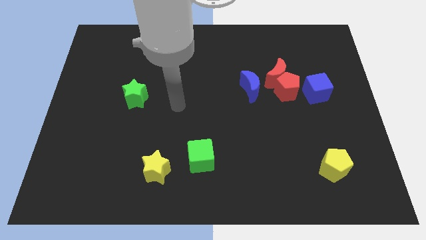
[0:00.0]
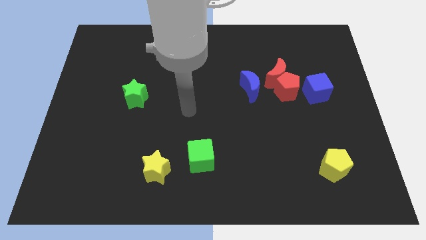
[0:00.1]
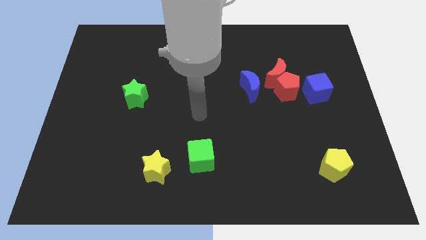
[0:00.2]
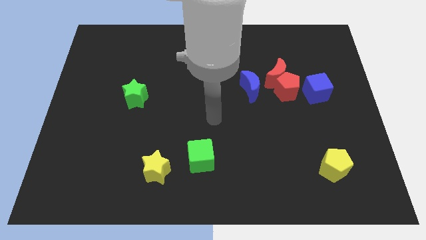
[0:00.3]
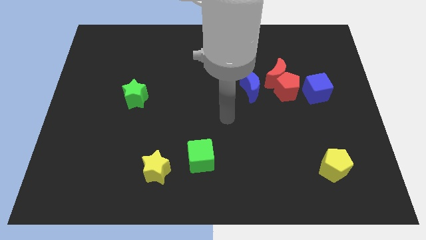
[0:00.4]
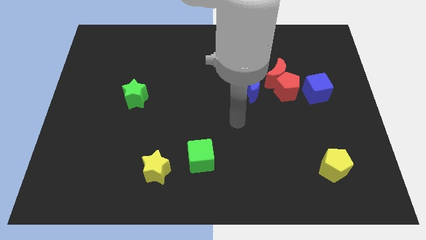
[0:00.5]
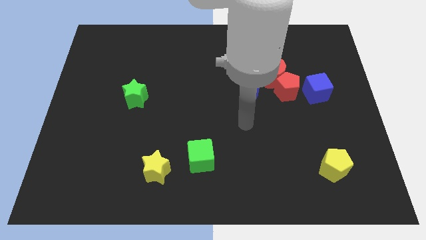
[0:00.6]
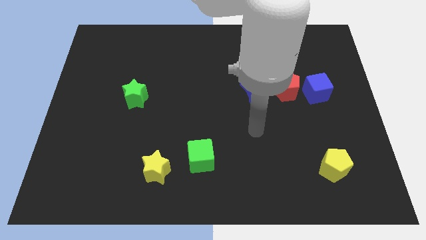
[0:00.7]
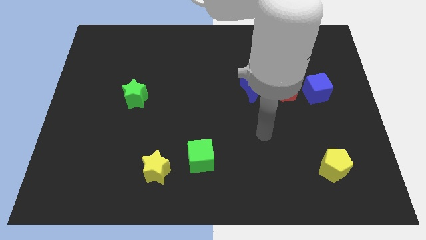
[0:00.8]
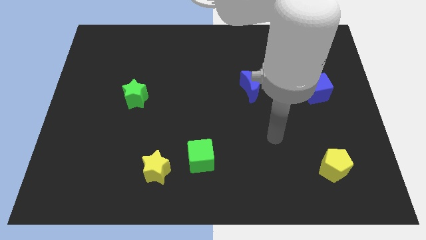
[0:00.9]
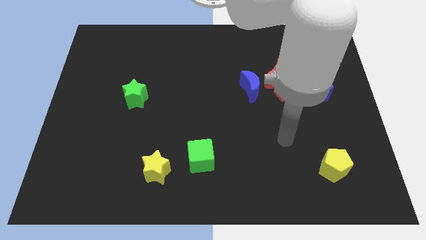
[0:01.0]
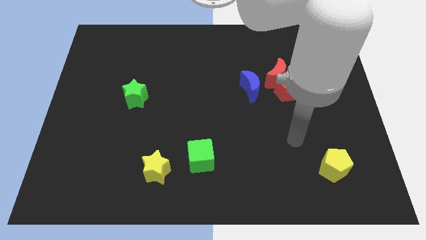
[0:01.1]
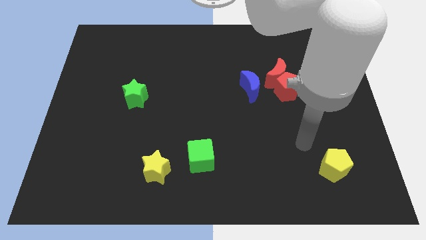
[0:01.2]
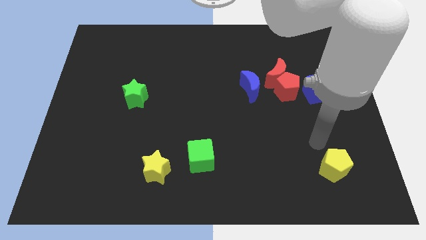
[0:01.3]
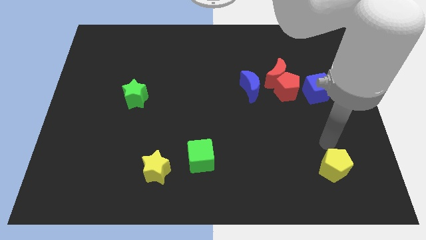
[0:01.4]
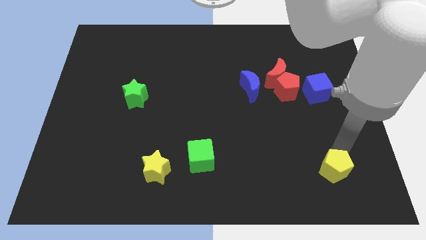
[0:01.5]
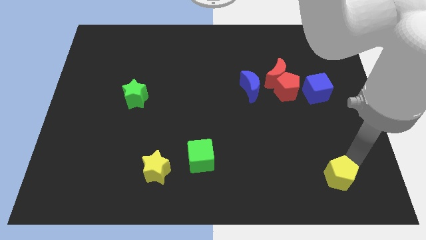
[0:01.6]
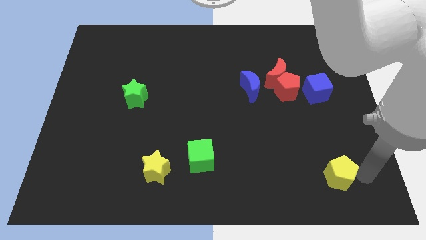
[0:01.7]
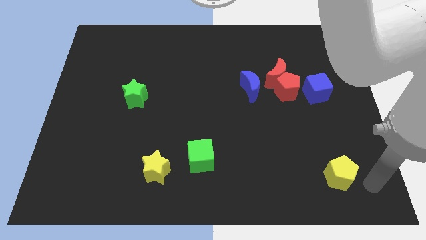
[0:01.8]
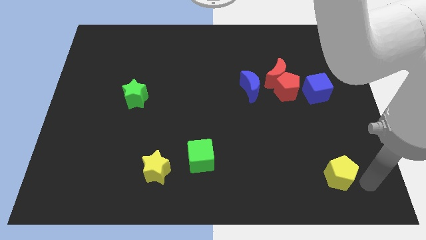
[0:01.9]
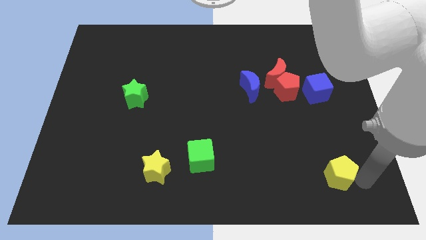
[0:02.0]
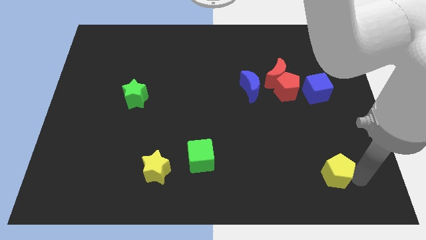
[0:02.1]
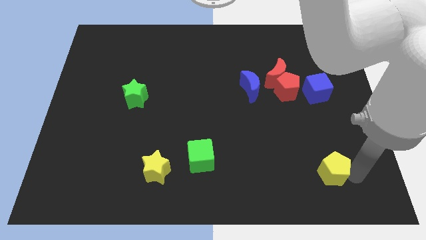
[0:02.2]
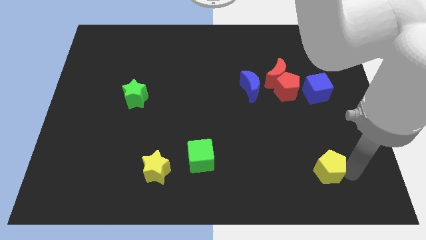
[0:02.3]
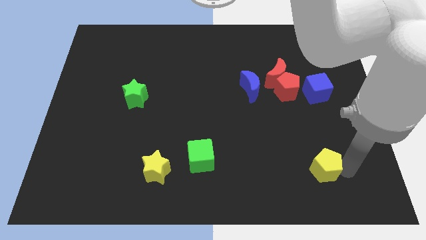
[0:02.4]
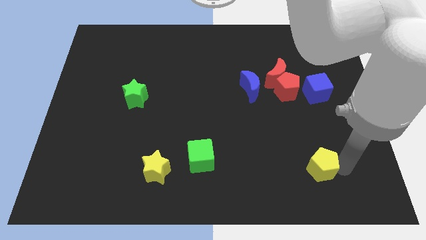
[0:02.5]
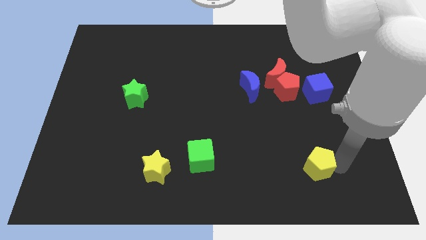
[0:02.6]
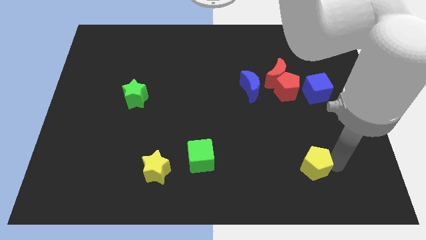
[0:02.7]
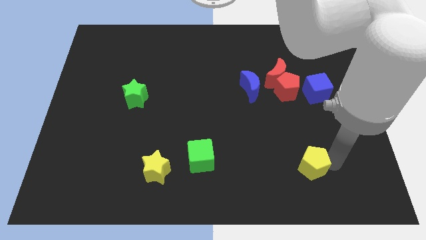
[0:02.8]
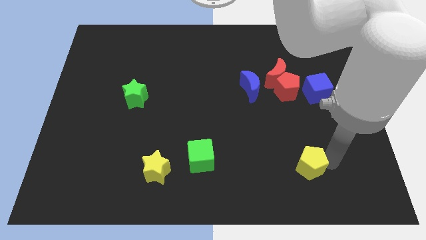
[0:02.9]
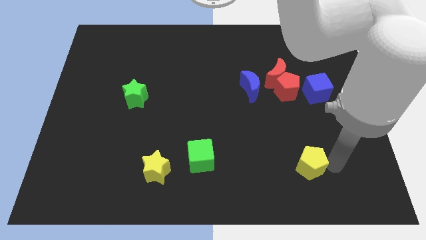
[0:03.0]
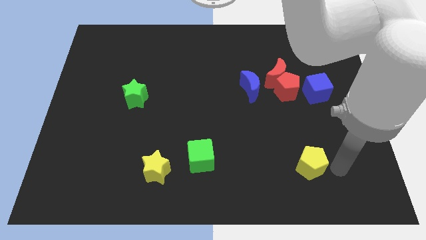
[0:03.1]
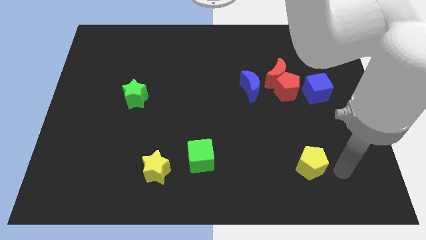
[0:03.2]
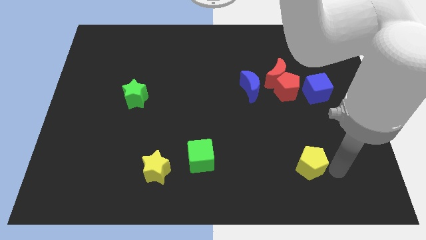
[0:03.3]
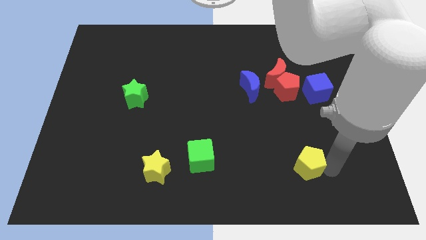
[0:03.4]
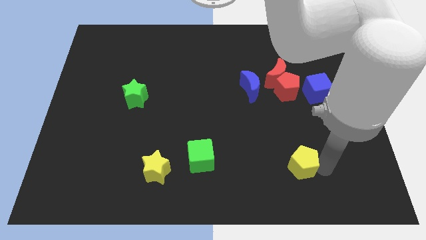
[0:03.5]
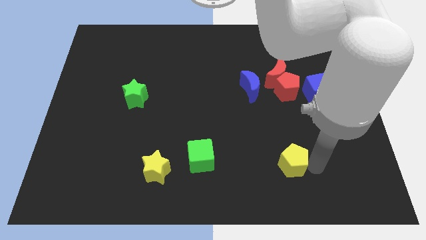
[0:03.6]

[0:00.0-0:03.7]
push the yellow pentagon a bit to the left

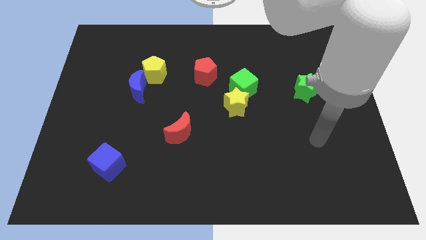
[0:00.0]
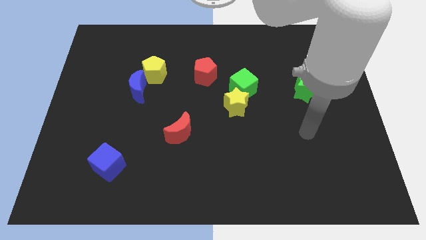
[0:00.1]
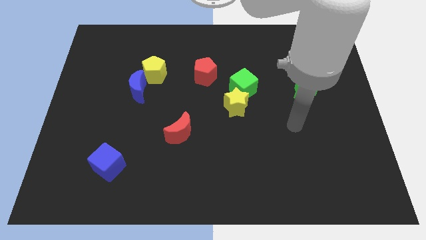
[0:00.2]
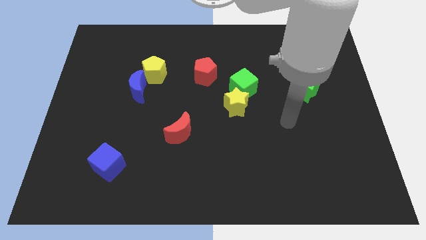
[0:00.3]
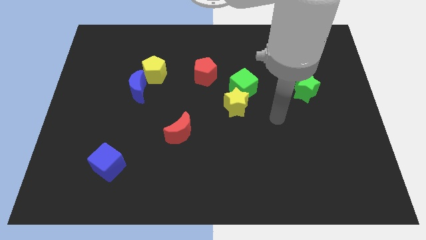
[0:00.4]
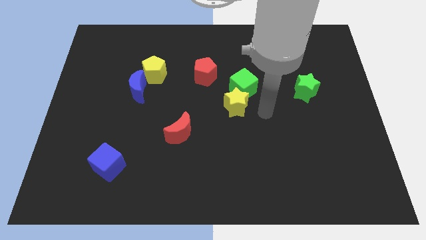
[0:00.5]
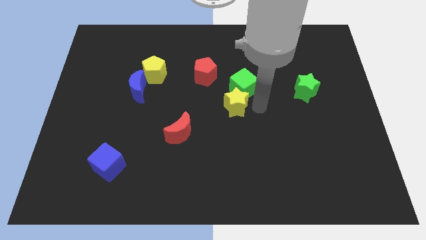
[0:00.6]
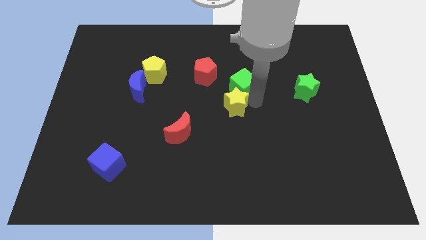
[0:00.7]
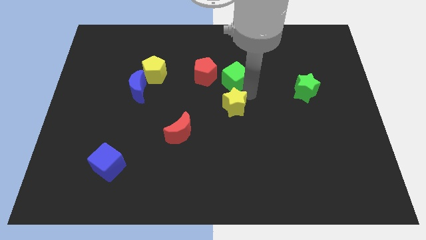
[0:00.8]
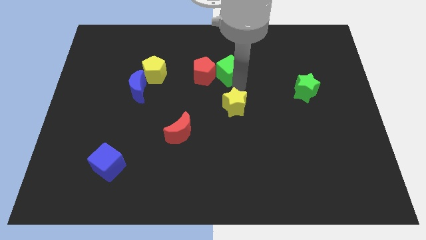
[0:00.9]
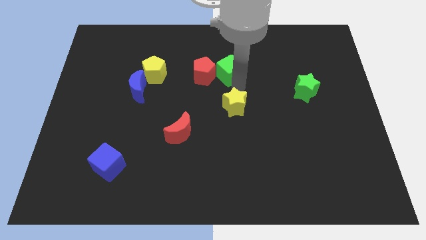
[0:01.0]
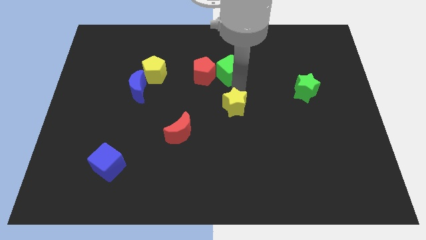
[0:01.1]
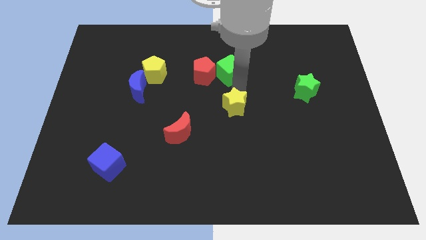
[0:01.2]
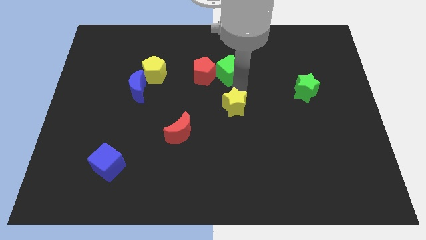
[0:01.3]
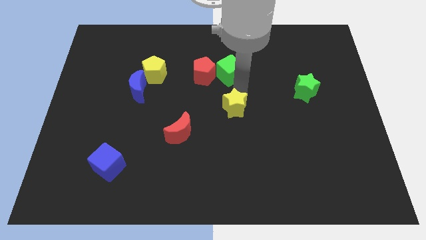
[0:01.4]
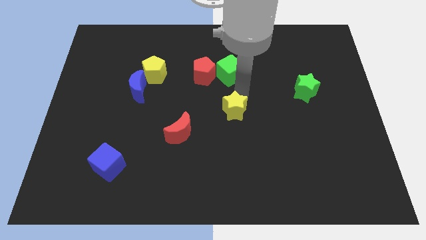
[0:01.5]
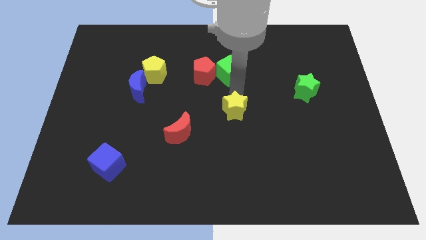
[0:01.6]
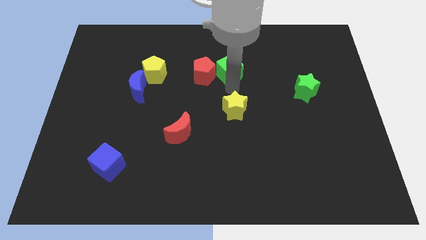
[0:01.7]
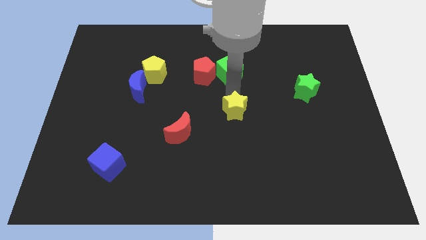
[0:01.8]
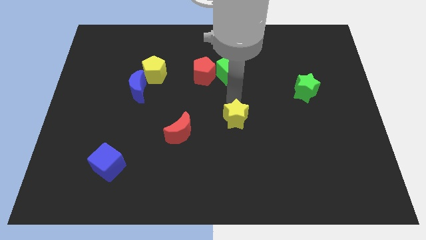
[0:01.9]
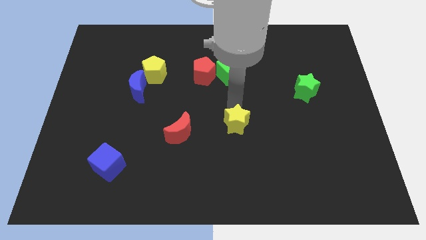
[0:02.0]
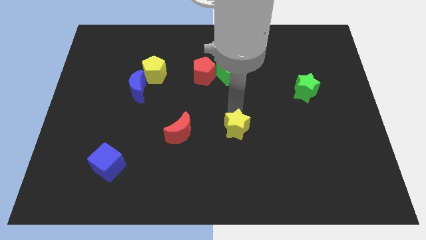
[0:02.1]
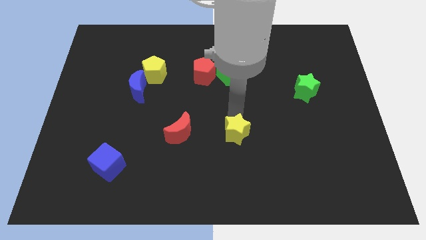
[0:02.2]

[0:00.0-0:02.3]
move the yellow star somewhat down

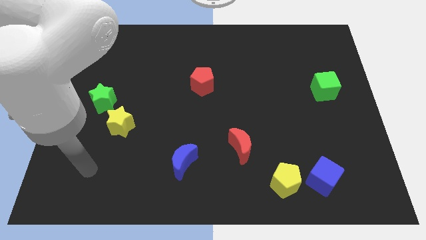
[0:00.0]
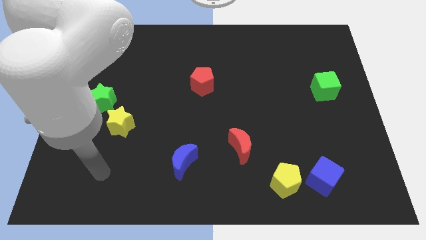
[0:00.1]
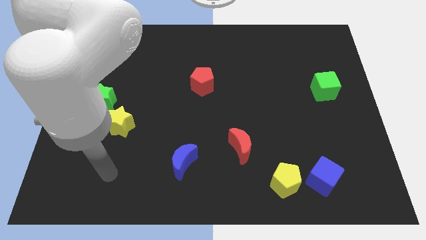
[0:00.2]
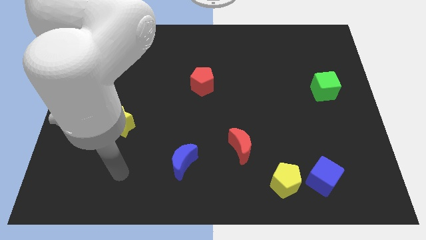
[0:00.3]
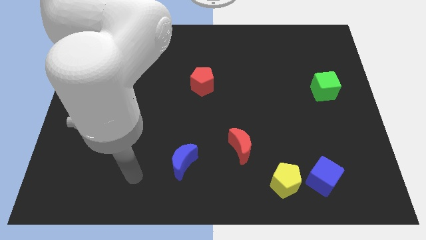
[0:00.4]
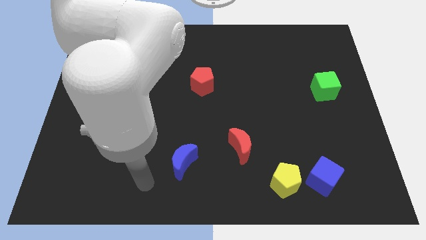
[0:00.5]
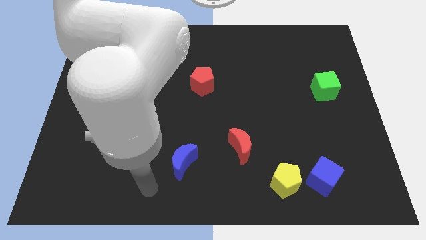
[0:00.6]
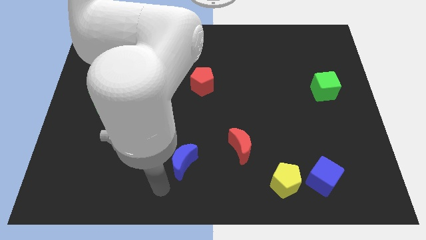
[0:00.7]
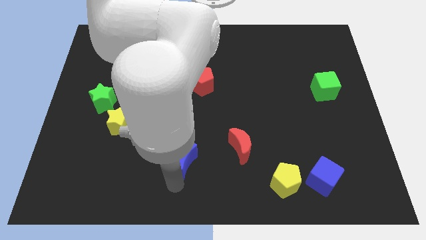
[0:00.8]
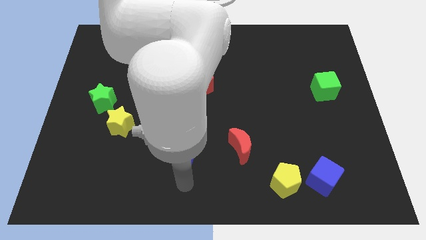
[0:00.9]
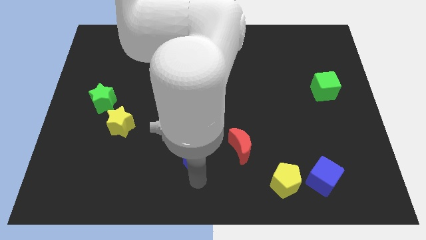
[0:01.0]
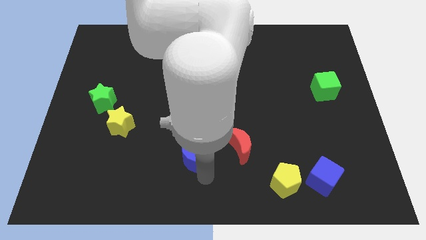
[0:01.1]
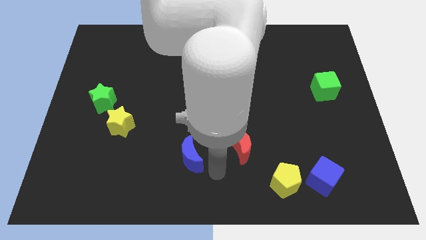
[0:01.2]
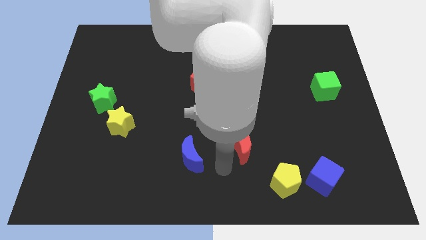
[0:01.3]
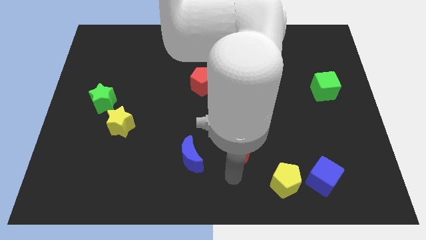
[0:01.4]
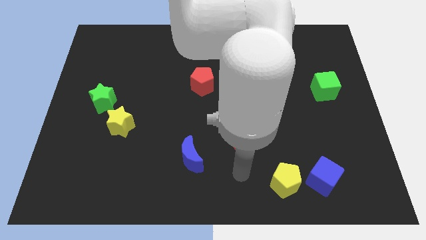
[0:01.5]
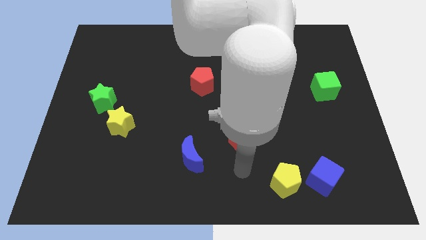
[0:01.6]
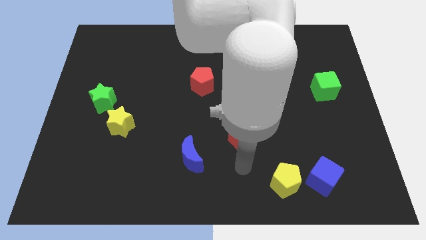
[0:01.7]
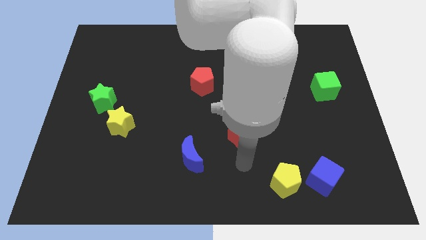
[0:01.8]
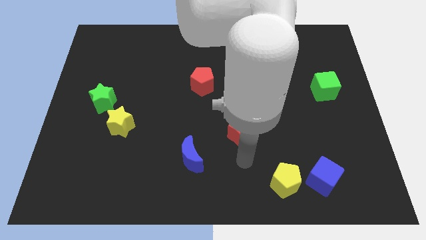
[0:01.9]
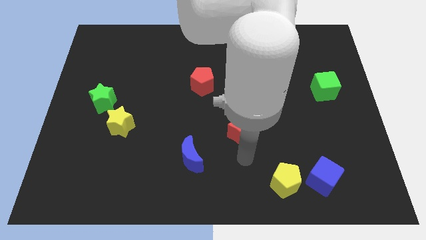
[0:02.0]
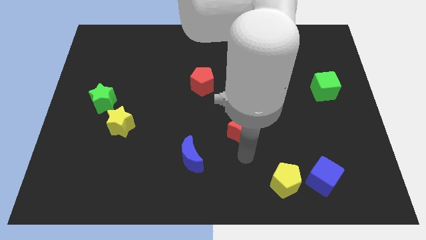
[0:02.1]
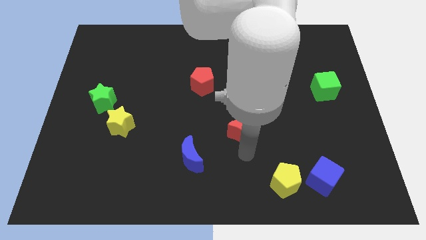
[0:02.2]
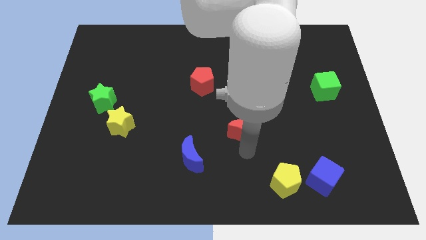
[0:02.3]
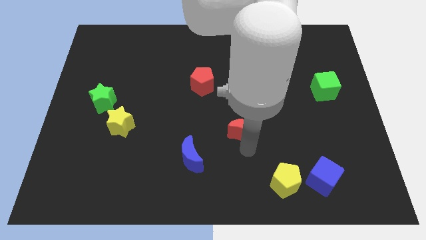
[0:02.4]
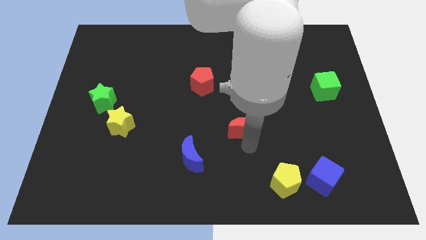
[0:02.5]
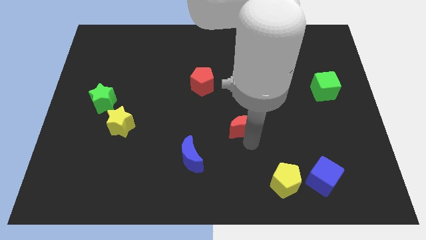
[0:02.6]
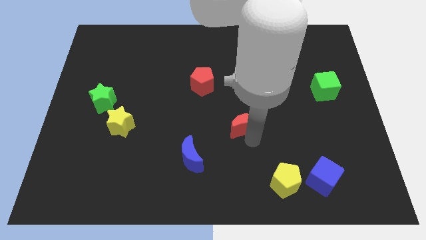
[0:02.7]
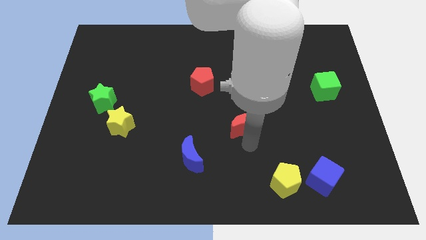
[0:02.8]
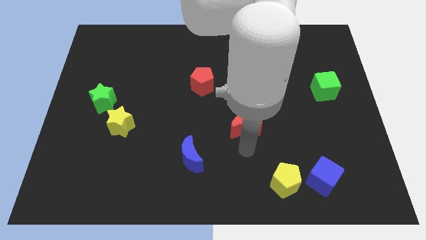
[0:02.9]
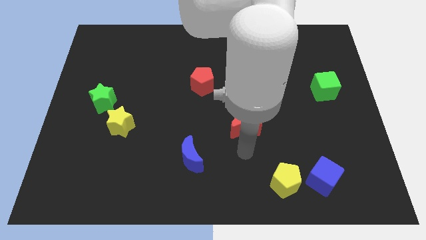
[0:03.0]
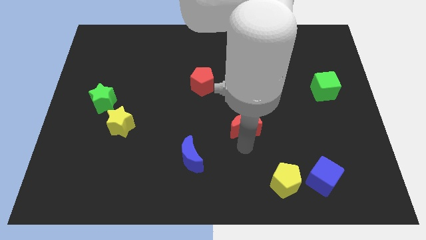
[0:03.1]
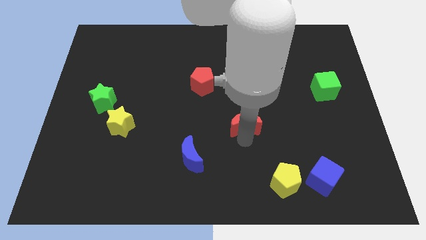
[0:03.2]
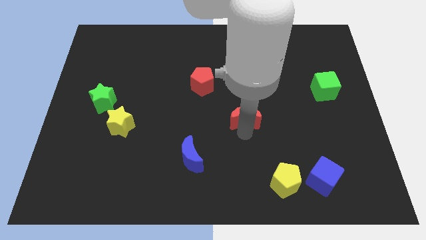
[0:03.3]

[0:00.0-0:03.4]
slightly move the red moon upwards
